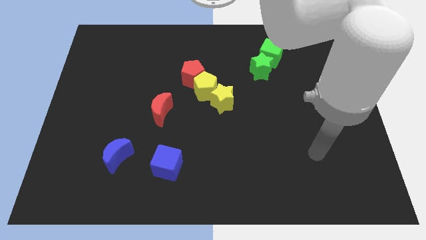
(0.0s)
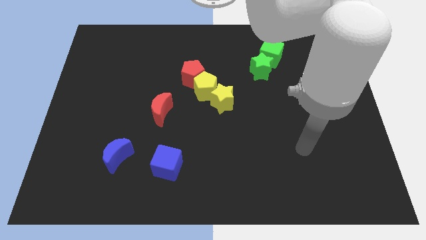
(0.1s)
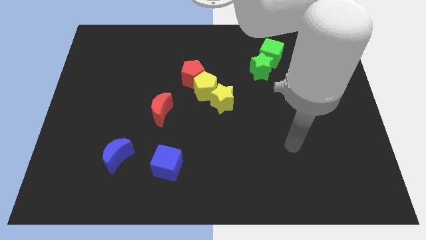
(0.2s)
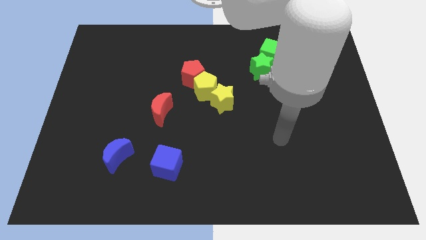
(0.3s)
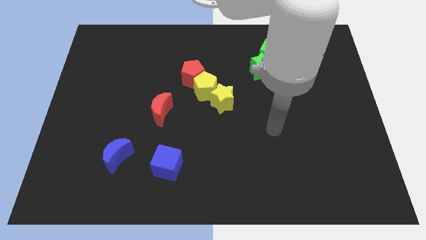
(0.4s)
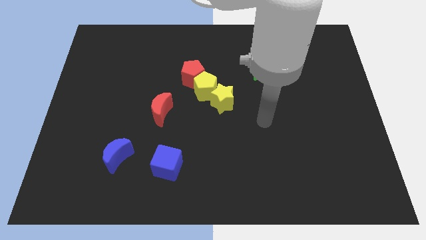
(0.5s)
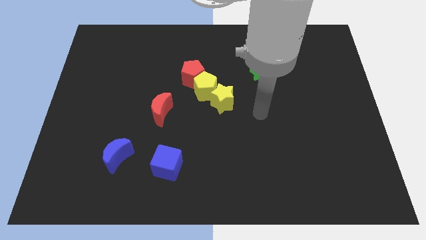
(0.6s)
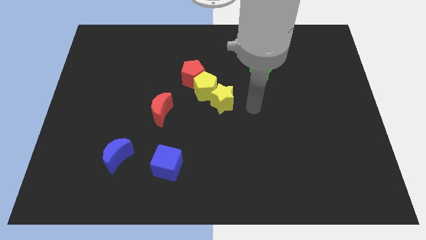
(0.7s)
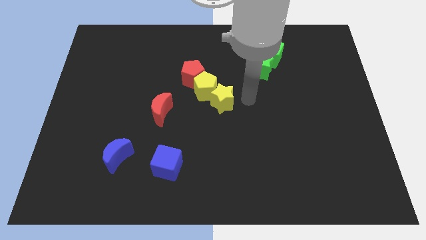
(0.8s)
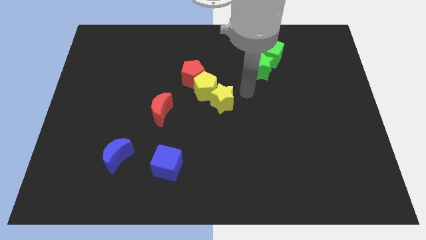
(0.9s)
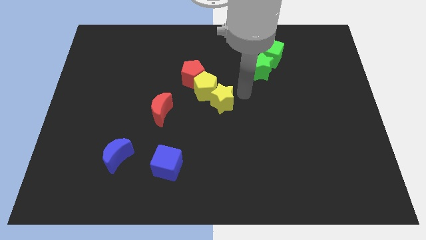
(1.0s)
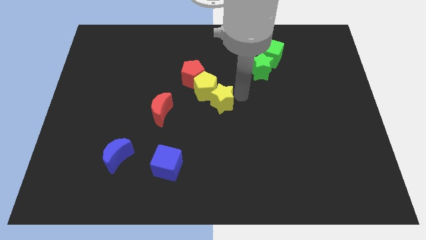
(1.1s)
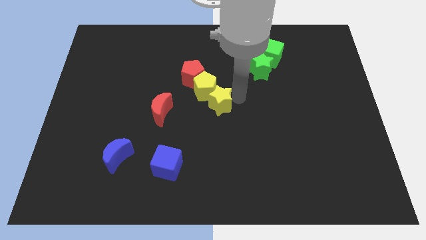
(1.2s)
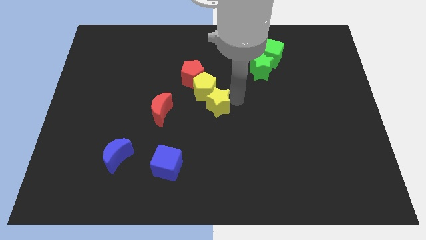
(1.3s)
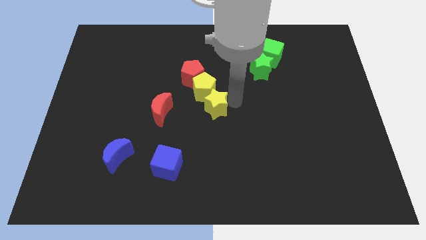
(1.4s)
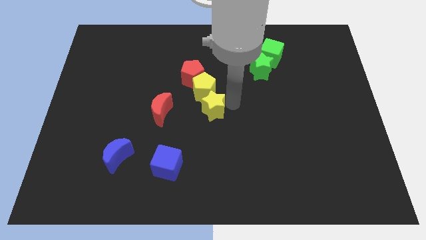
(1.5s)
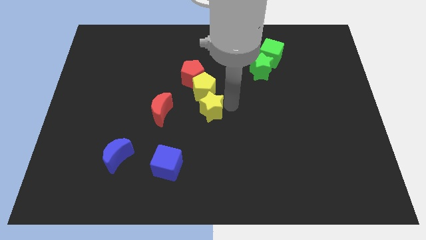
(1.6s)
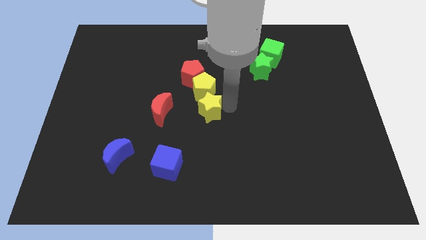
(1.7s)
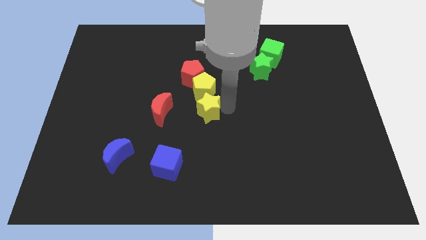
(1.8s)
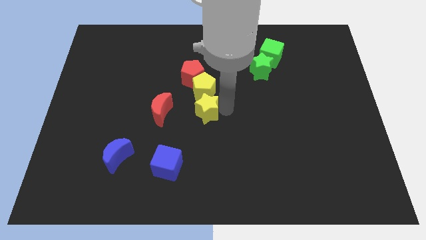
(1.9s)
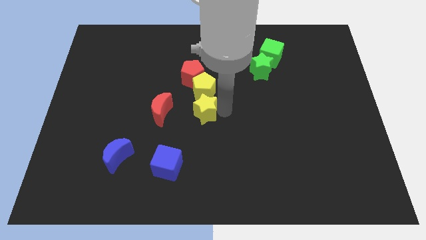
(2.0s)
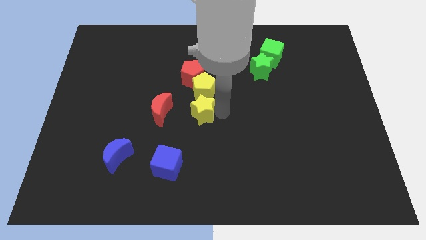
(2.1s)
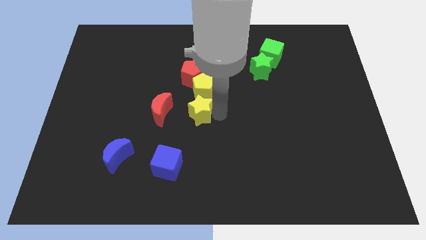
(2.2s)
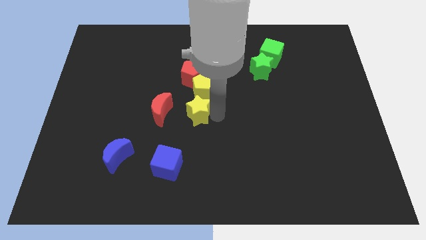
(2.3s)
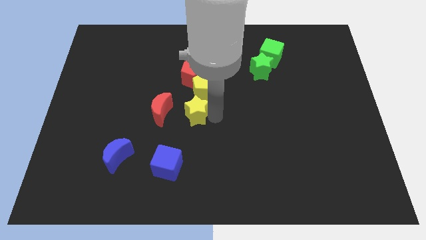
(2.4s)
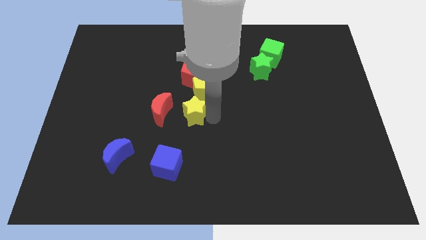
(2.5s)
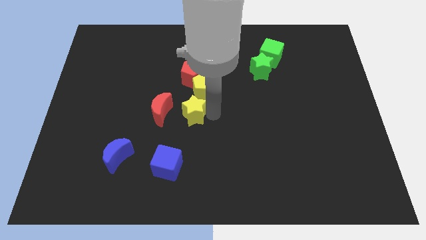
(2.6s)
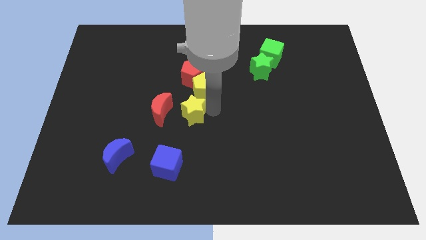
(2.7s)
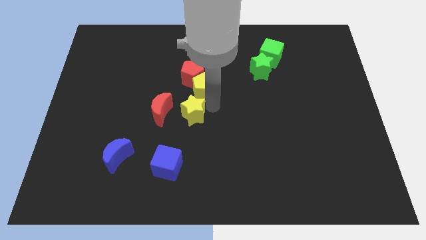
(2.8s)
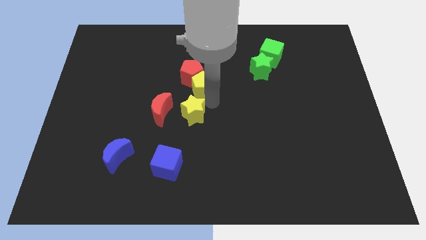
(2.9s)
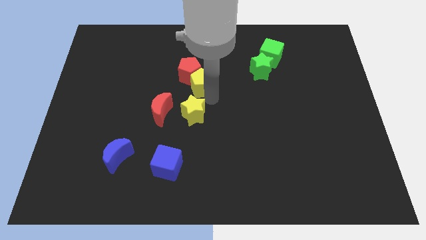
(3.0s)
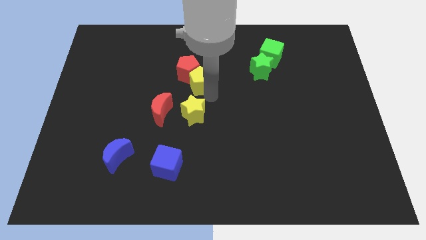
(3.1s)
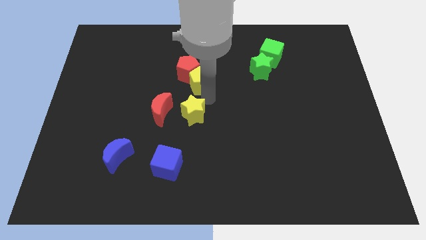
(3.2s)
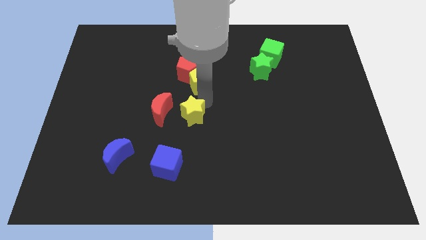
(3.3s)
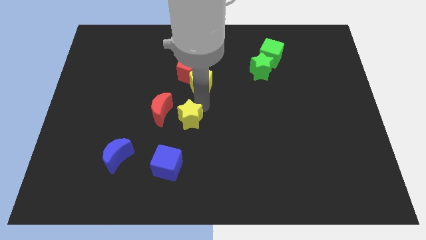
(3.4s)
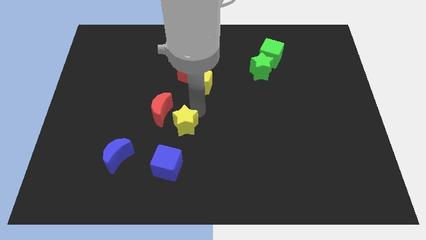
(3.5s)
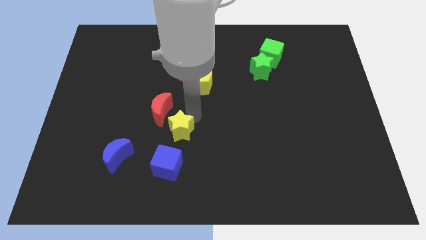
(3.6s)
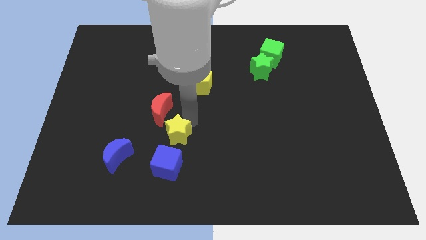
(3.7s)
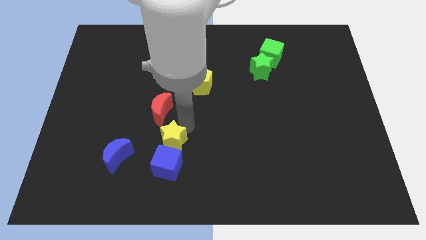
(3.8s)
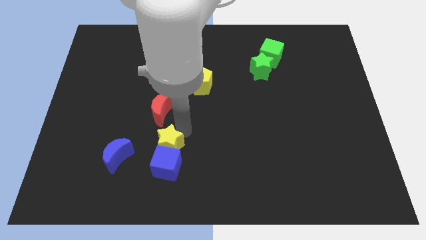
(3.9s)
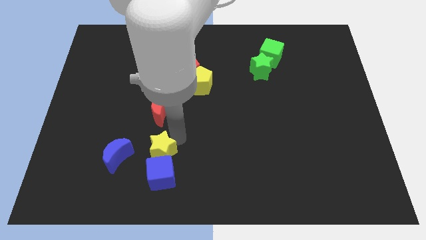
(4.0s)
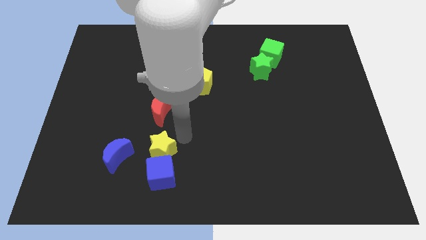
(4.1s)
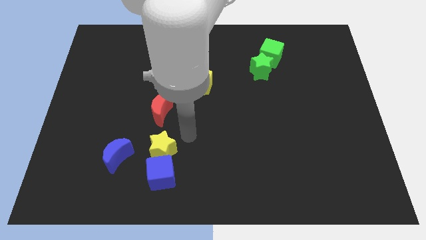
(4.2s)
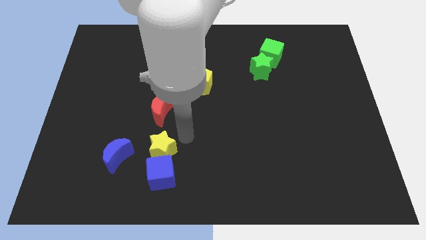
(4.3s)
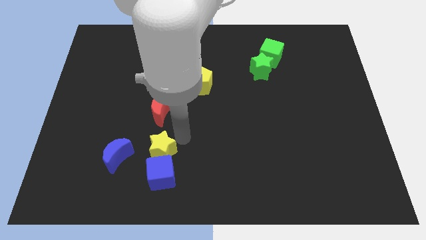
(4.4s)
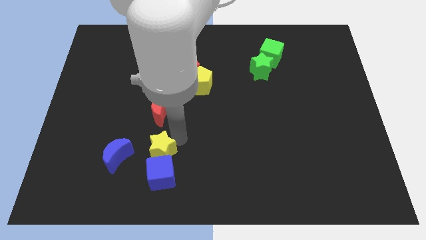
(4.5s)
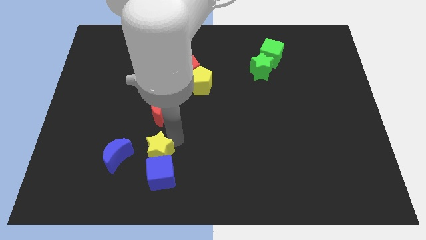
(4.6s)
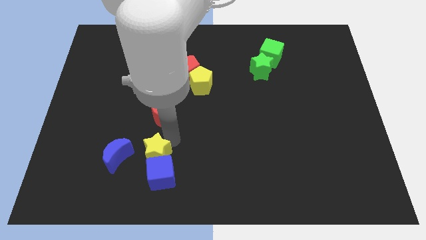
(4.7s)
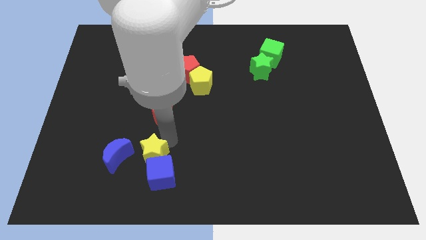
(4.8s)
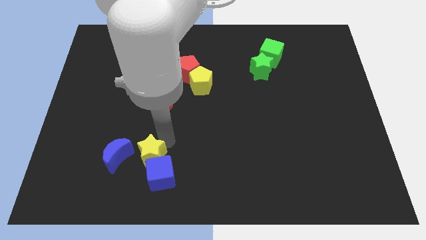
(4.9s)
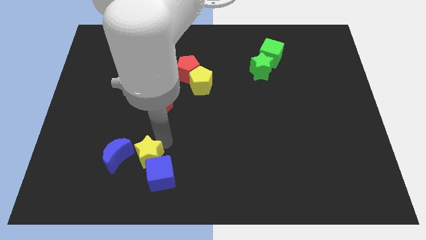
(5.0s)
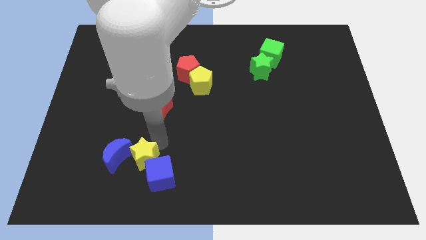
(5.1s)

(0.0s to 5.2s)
put the yellow star just left of the blue cube

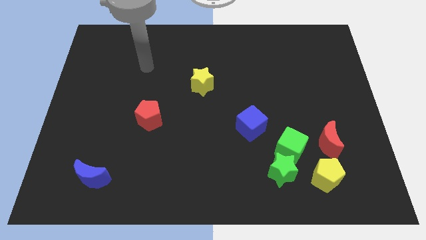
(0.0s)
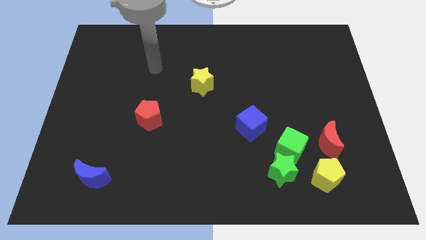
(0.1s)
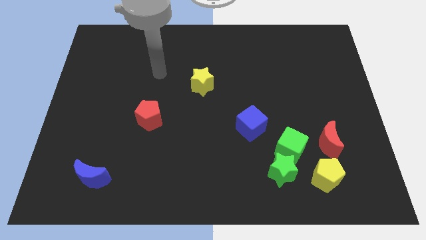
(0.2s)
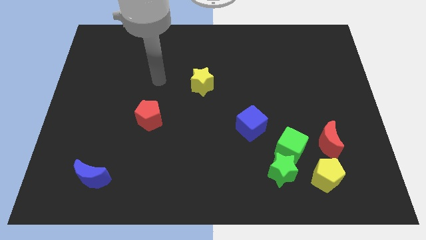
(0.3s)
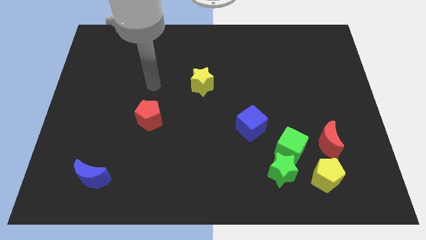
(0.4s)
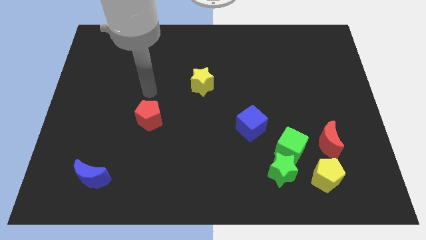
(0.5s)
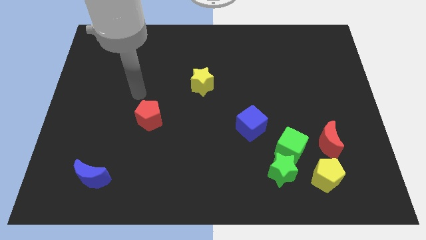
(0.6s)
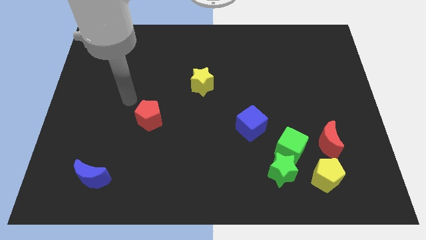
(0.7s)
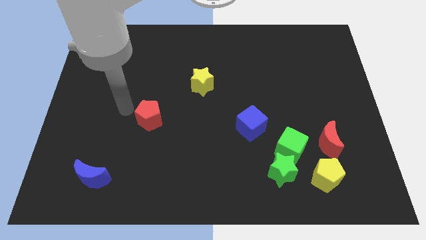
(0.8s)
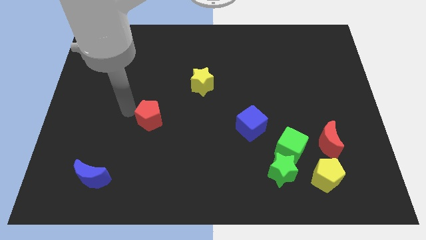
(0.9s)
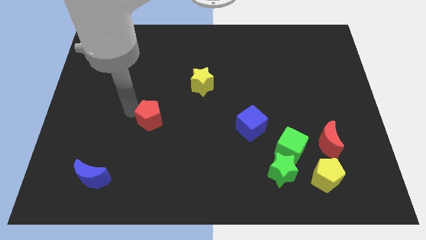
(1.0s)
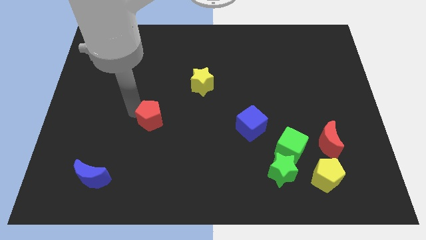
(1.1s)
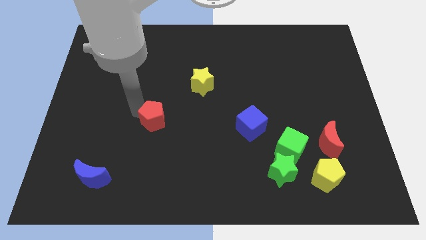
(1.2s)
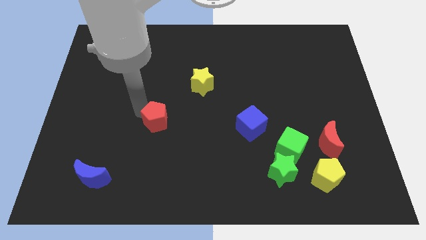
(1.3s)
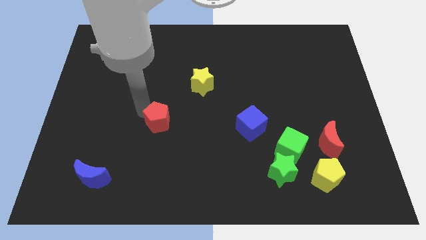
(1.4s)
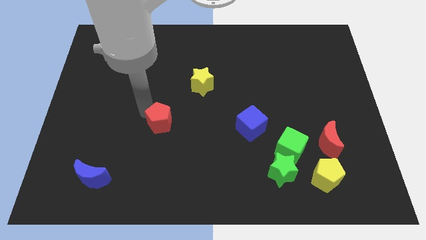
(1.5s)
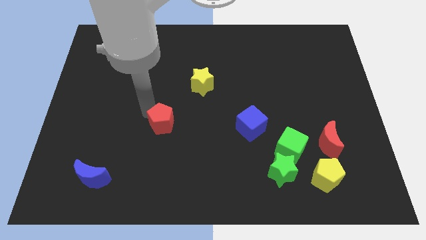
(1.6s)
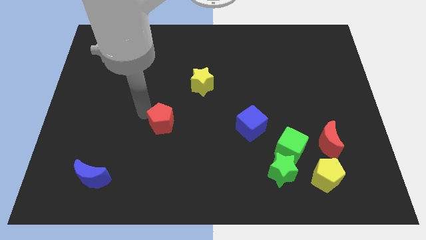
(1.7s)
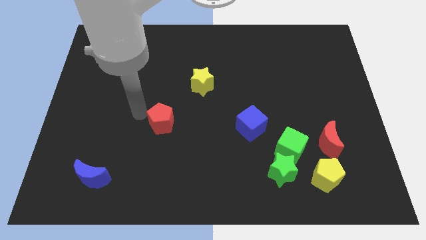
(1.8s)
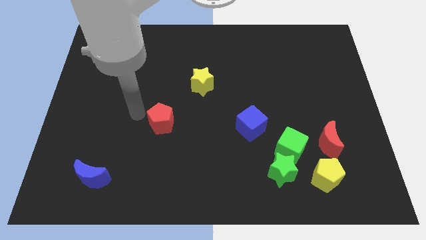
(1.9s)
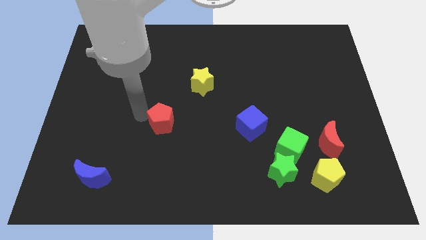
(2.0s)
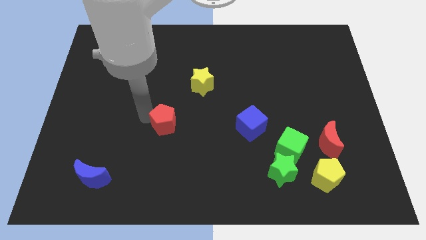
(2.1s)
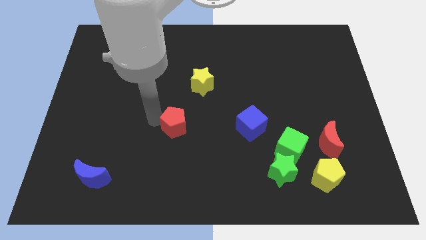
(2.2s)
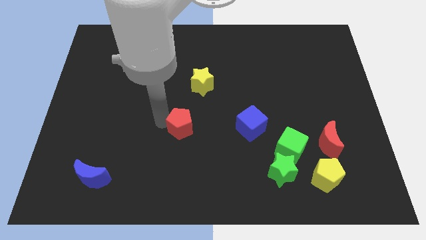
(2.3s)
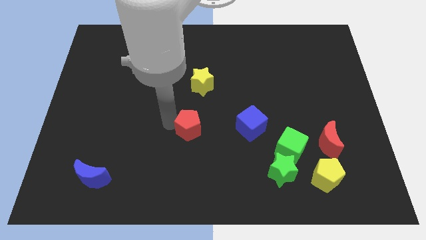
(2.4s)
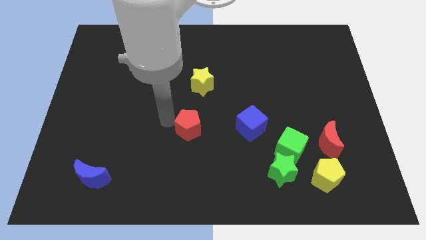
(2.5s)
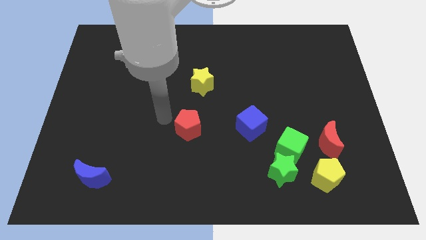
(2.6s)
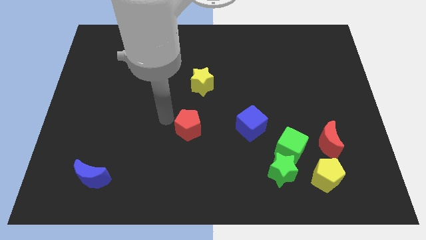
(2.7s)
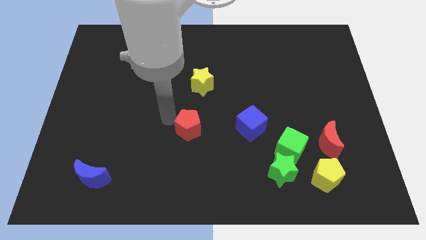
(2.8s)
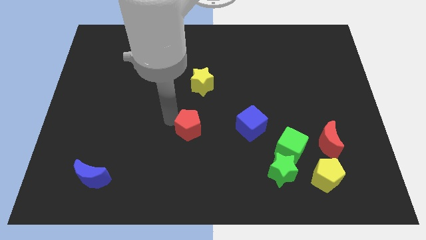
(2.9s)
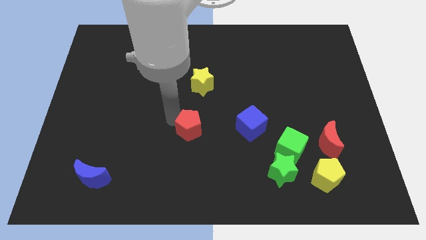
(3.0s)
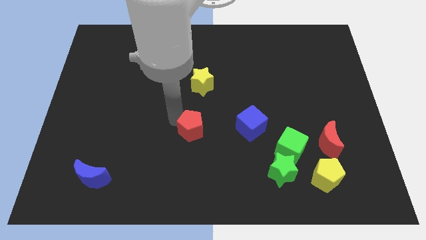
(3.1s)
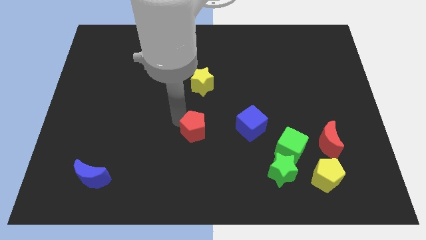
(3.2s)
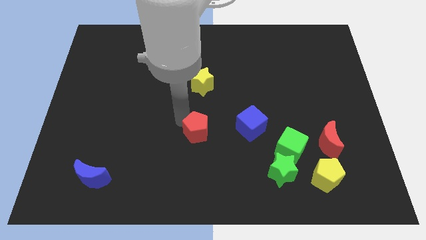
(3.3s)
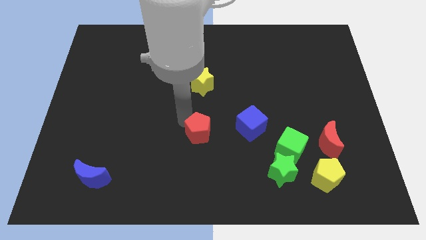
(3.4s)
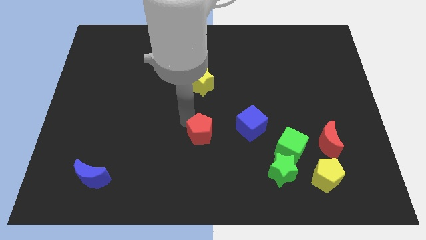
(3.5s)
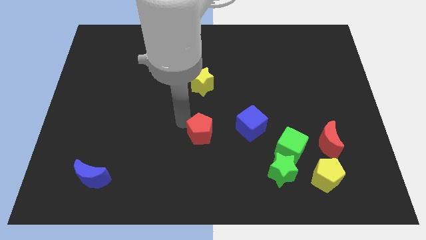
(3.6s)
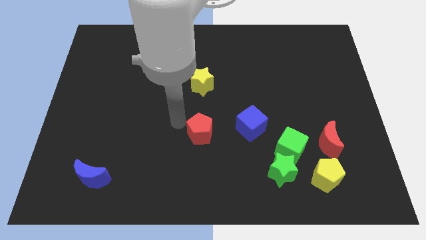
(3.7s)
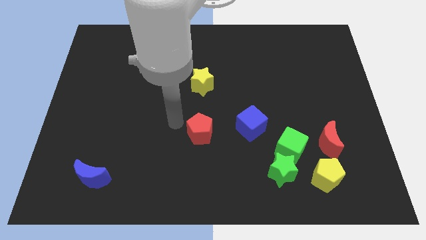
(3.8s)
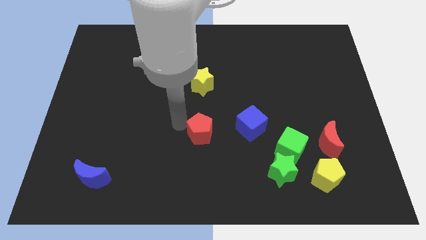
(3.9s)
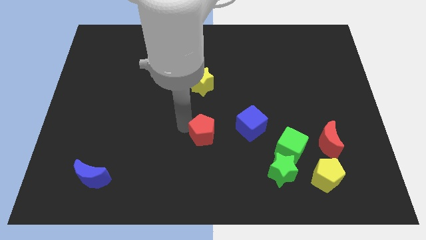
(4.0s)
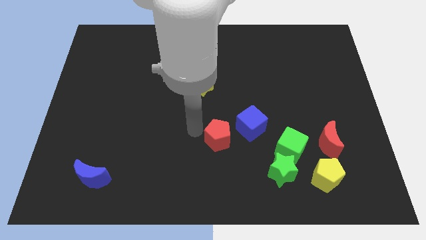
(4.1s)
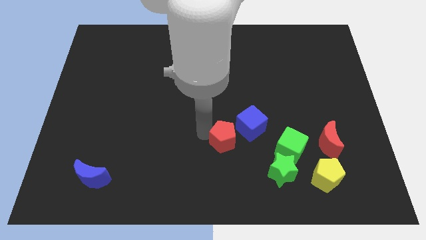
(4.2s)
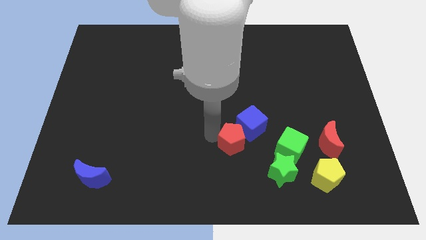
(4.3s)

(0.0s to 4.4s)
push the red pentagon diagonally up and to the left of the green star
